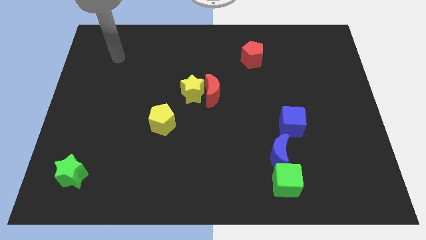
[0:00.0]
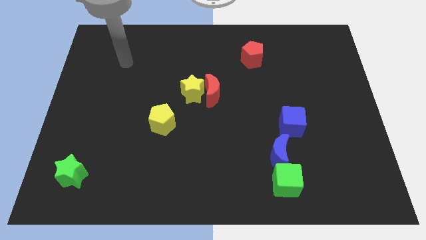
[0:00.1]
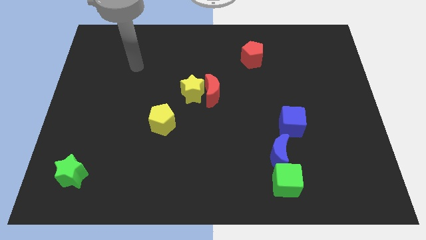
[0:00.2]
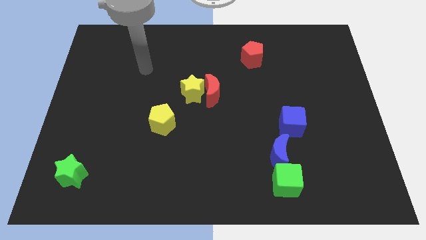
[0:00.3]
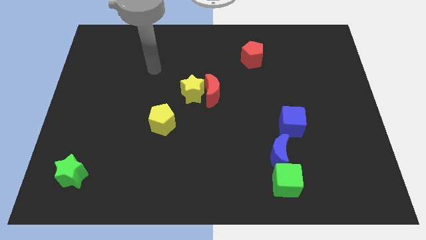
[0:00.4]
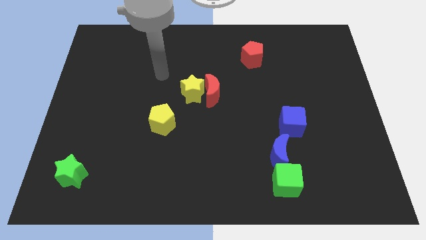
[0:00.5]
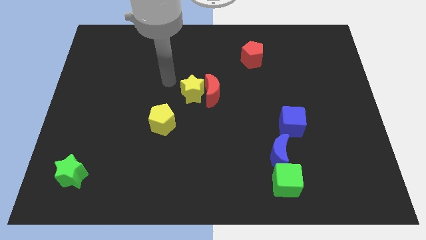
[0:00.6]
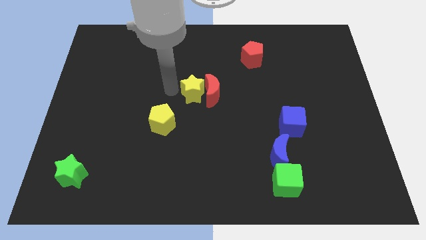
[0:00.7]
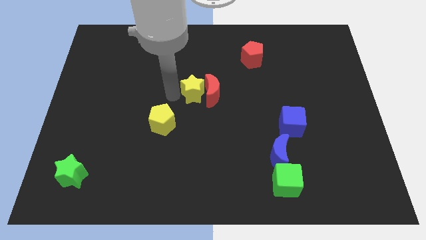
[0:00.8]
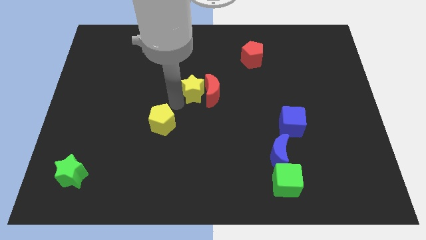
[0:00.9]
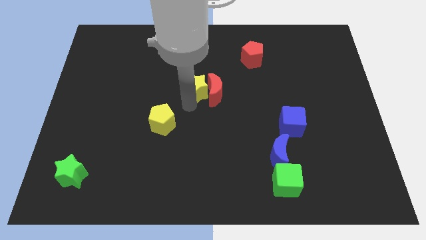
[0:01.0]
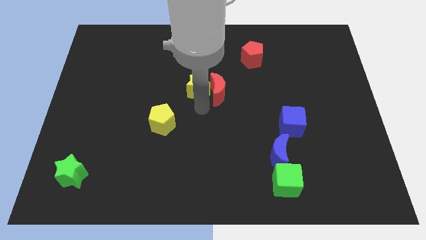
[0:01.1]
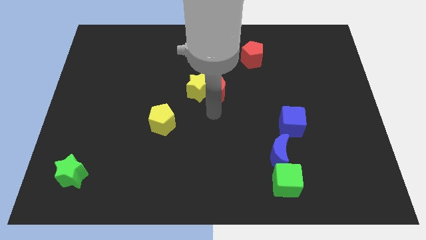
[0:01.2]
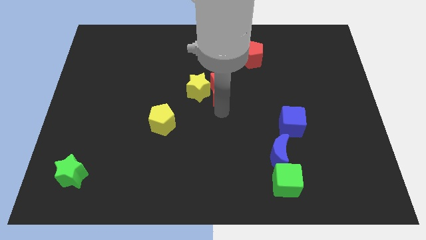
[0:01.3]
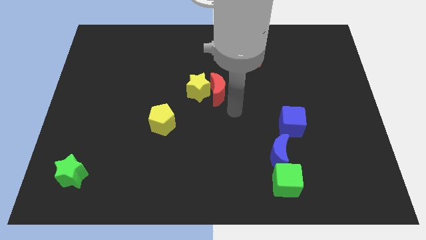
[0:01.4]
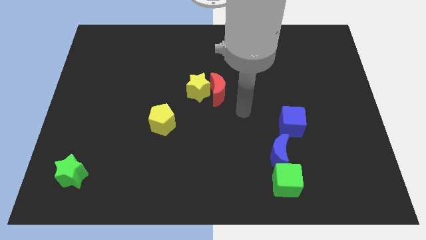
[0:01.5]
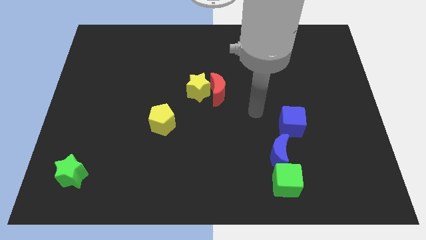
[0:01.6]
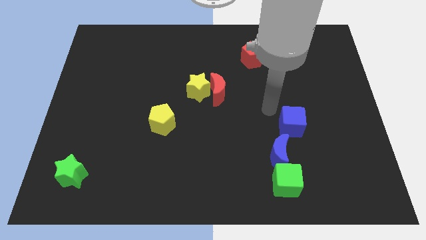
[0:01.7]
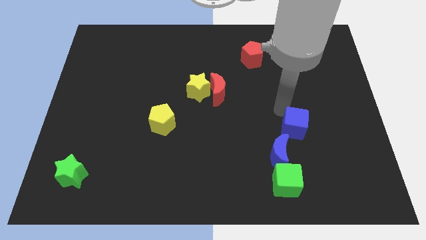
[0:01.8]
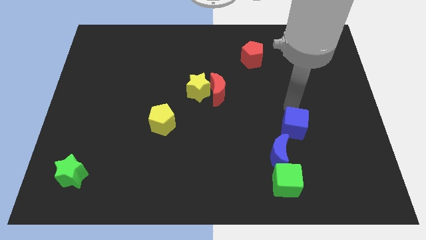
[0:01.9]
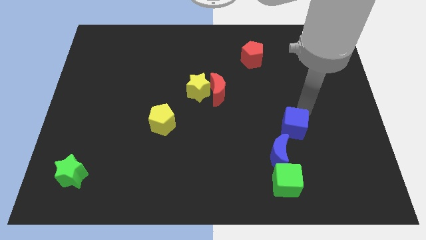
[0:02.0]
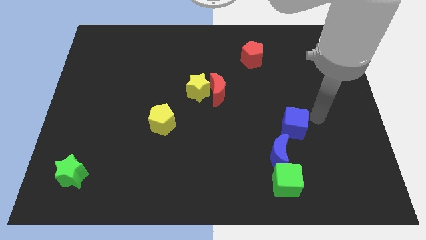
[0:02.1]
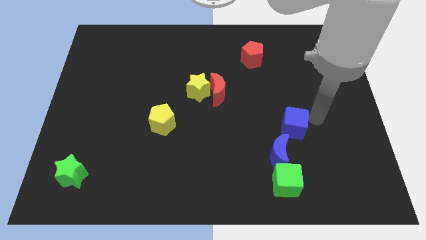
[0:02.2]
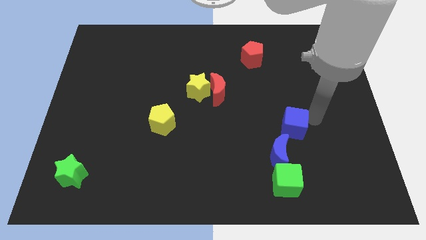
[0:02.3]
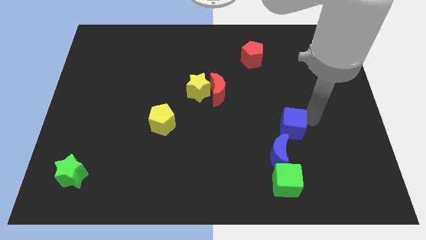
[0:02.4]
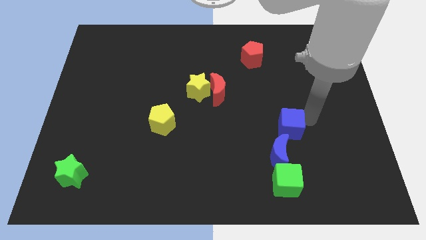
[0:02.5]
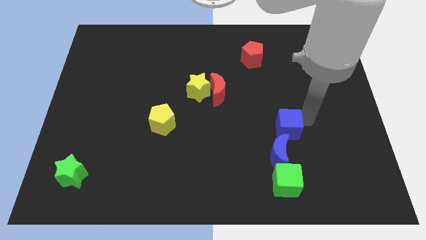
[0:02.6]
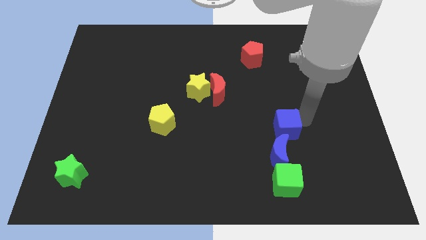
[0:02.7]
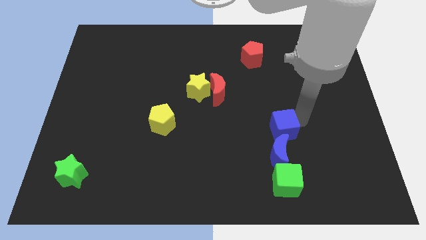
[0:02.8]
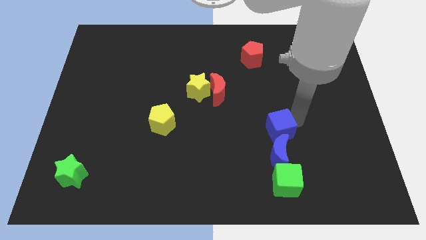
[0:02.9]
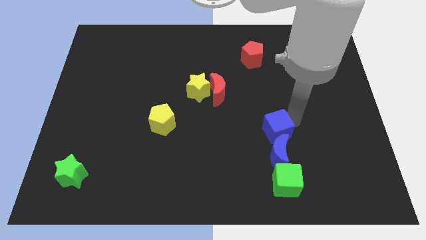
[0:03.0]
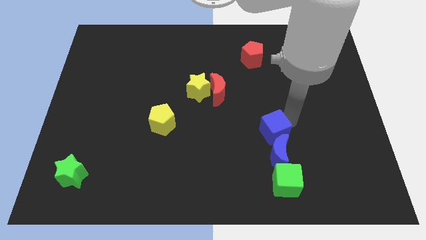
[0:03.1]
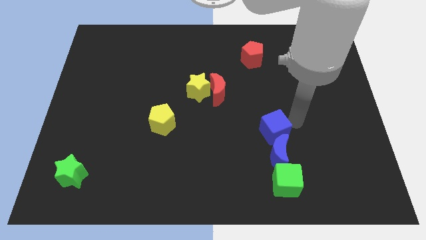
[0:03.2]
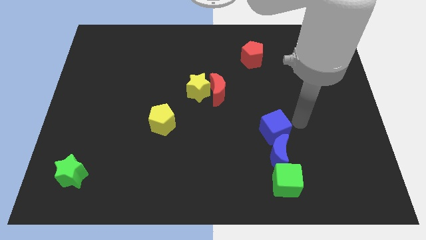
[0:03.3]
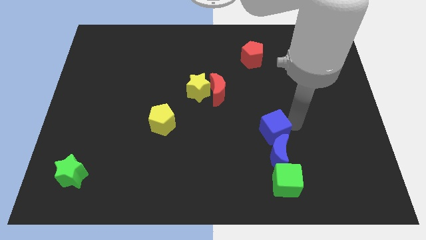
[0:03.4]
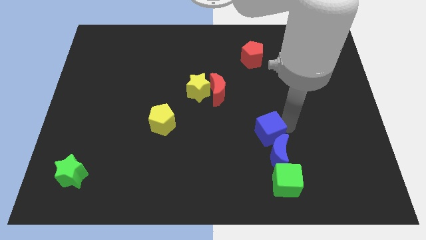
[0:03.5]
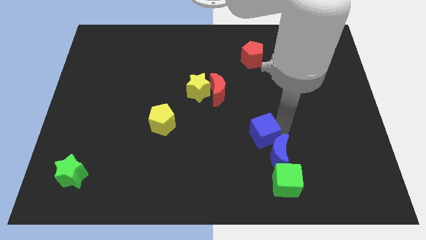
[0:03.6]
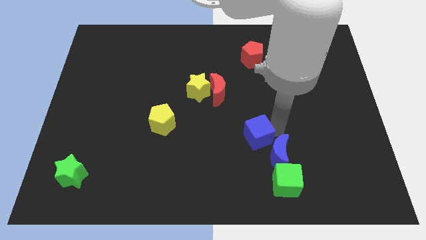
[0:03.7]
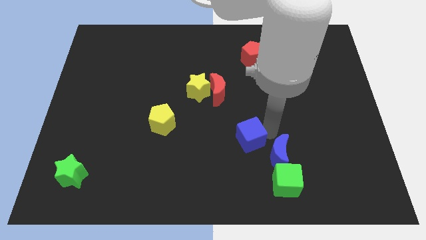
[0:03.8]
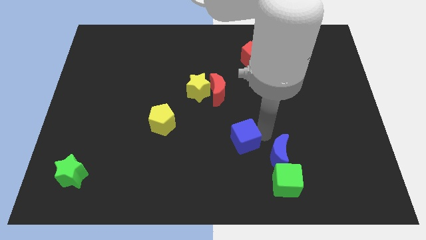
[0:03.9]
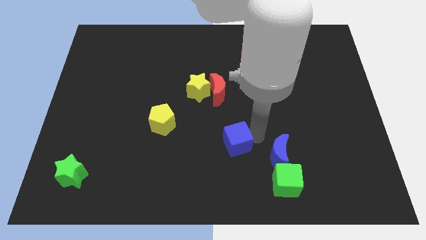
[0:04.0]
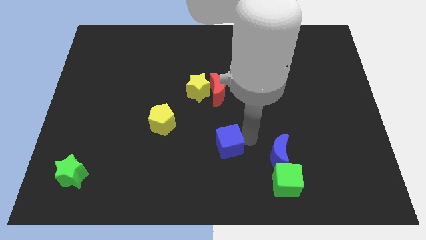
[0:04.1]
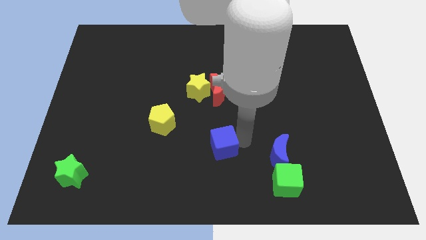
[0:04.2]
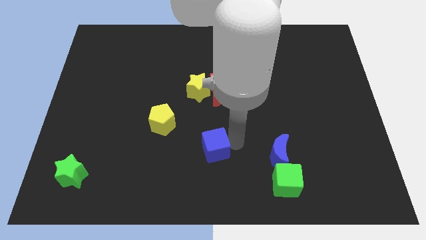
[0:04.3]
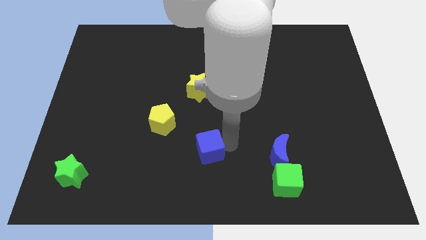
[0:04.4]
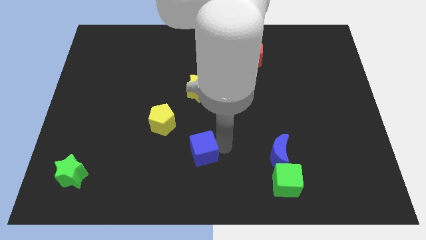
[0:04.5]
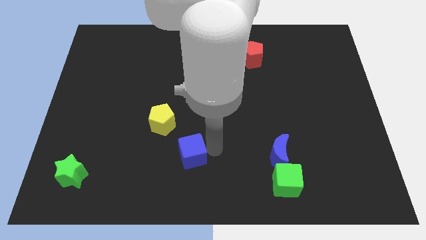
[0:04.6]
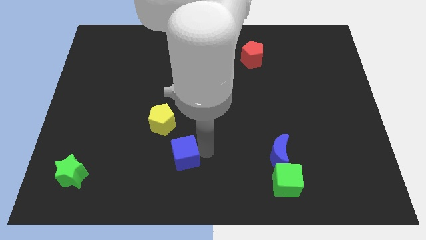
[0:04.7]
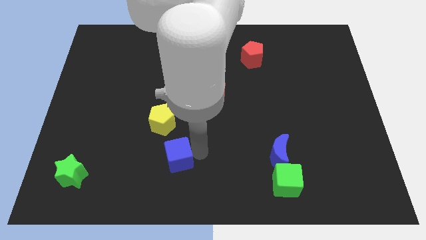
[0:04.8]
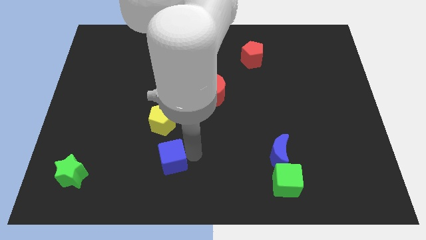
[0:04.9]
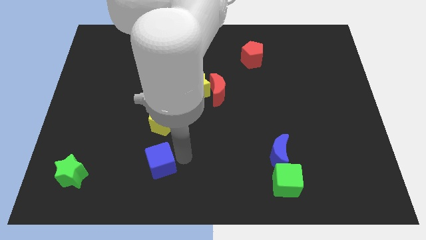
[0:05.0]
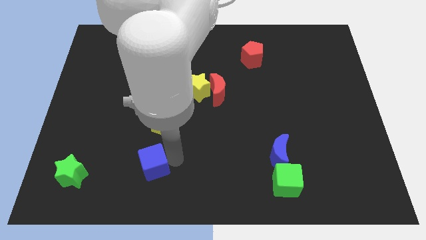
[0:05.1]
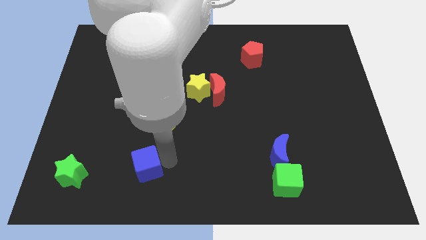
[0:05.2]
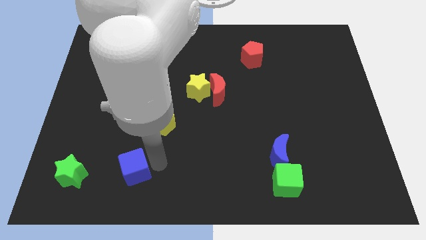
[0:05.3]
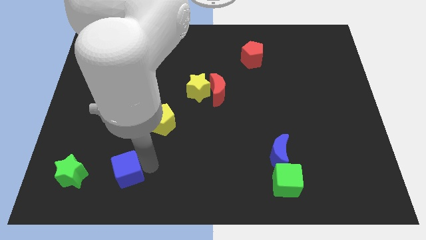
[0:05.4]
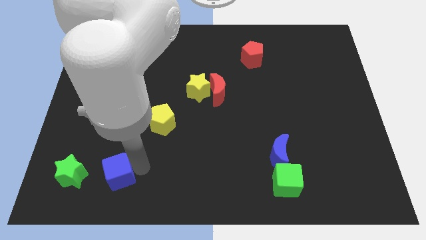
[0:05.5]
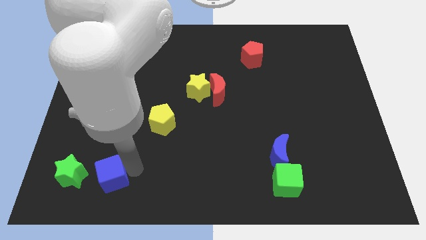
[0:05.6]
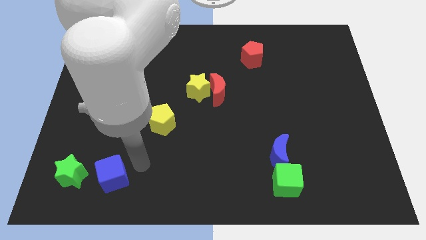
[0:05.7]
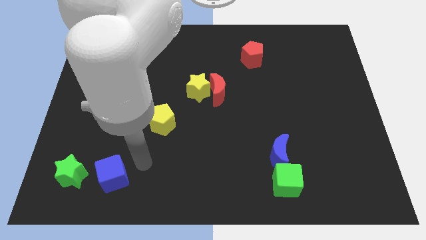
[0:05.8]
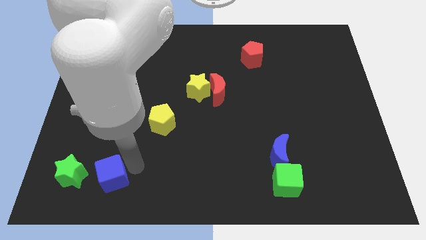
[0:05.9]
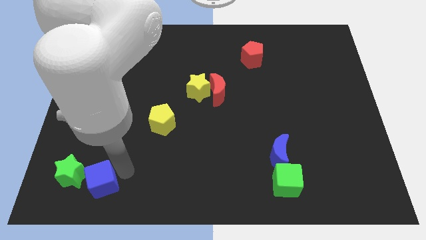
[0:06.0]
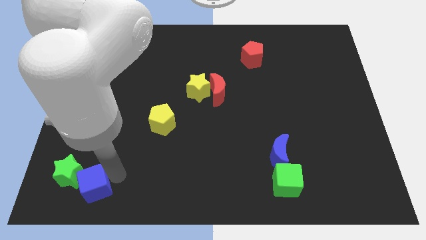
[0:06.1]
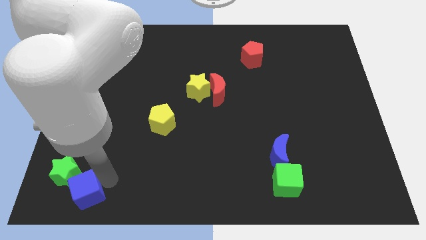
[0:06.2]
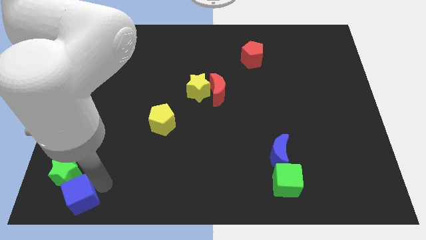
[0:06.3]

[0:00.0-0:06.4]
move the blue cube to the bottom left

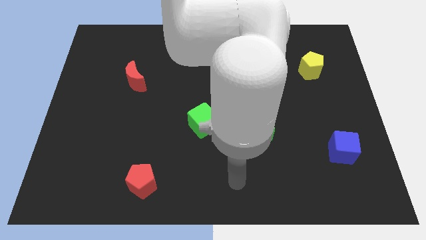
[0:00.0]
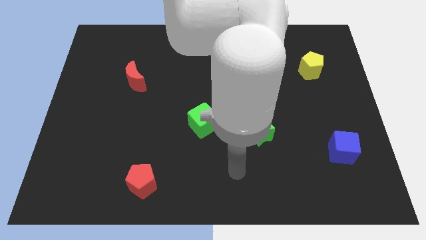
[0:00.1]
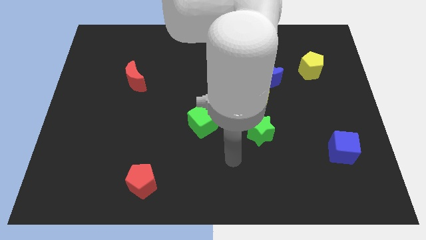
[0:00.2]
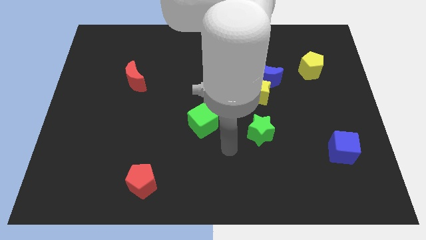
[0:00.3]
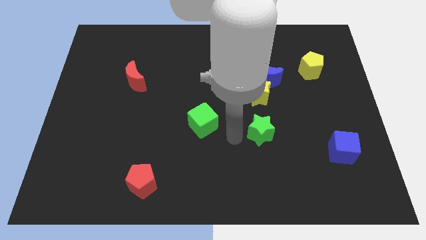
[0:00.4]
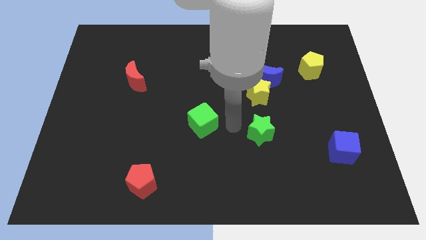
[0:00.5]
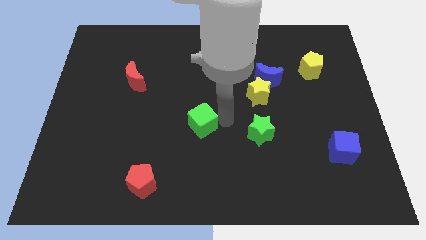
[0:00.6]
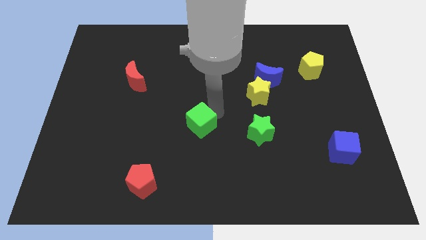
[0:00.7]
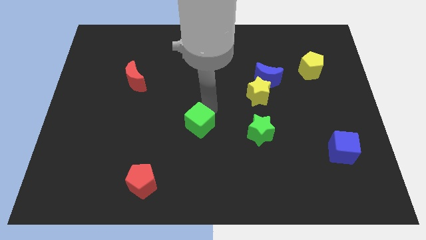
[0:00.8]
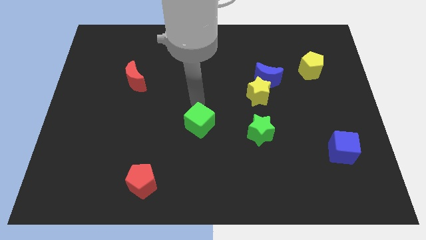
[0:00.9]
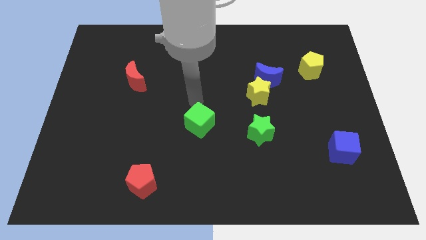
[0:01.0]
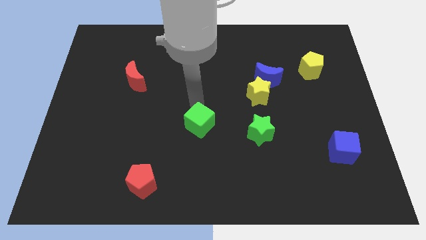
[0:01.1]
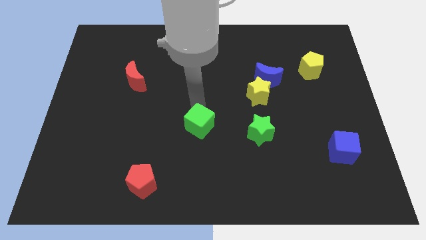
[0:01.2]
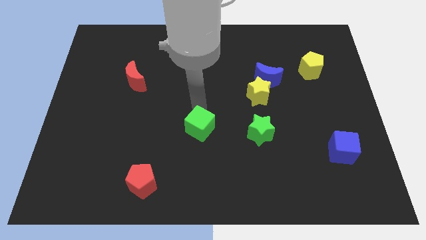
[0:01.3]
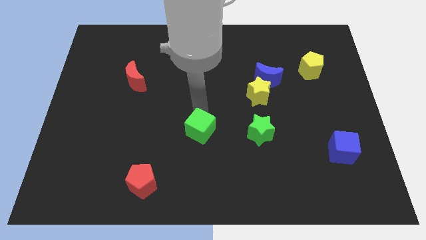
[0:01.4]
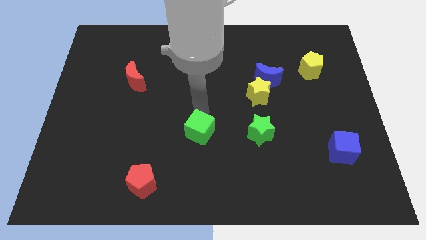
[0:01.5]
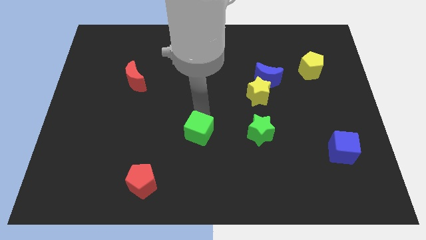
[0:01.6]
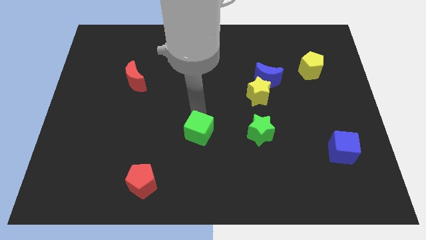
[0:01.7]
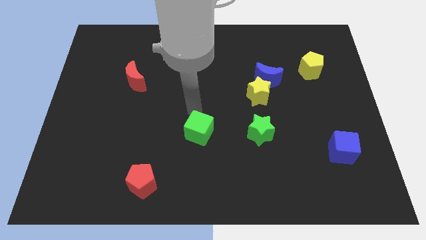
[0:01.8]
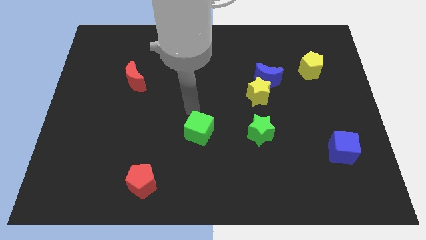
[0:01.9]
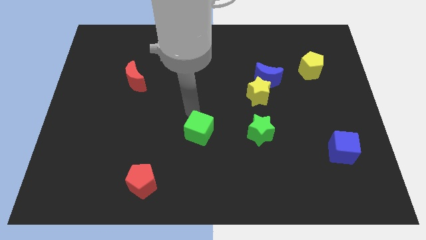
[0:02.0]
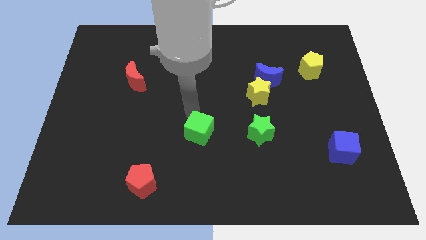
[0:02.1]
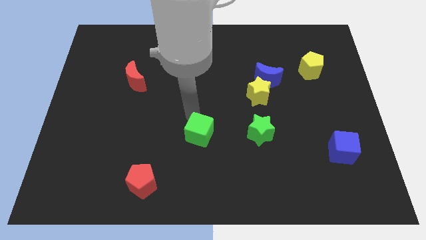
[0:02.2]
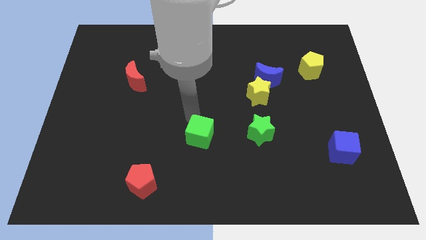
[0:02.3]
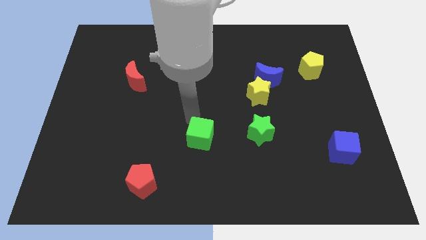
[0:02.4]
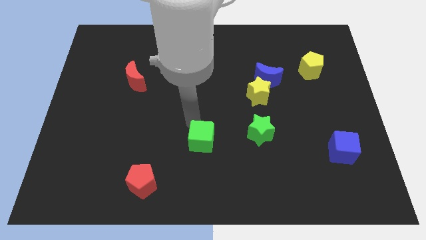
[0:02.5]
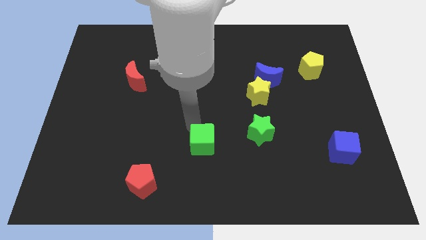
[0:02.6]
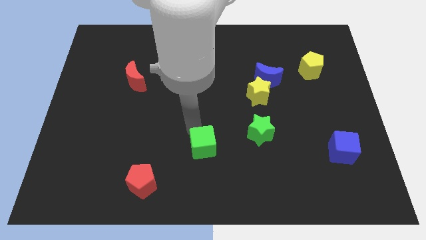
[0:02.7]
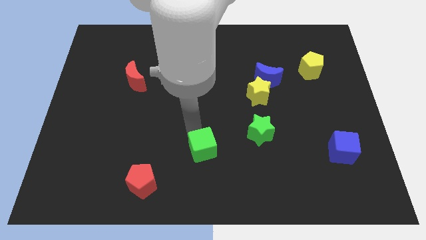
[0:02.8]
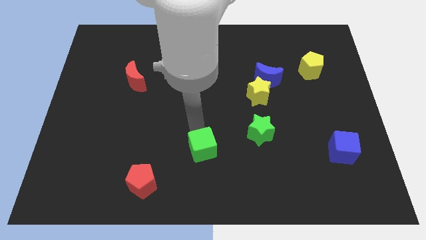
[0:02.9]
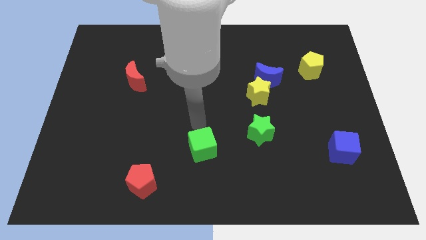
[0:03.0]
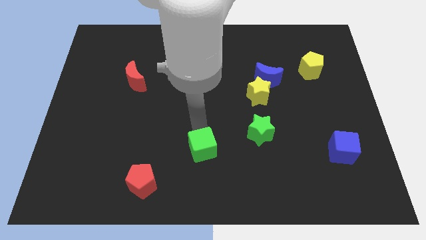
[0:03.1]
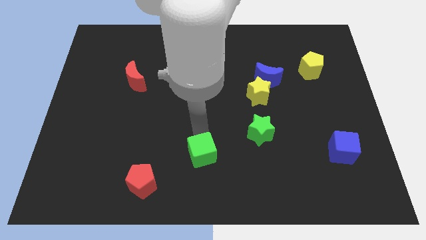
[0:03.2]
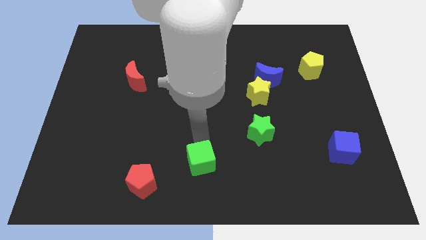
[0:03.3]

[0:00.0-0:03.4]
move the green cube to the bottom
